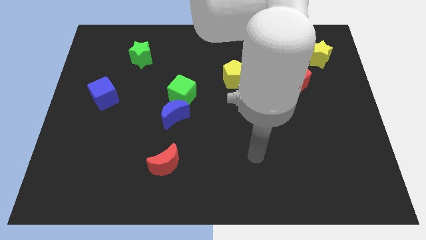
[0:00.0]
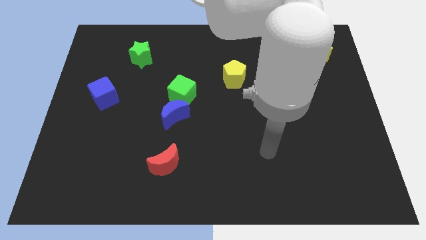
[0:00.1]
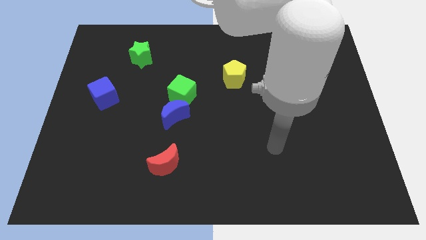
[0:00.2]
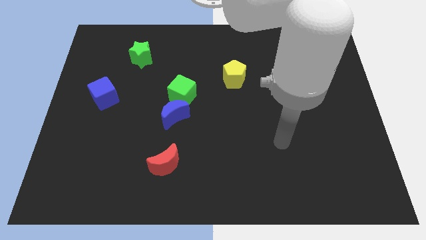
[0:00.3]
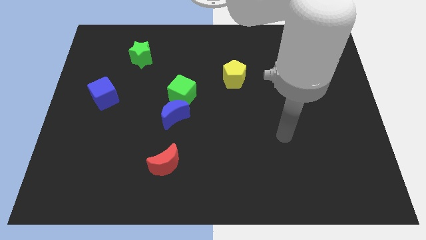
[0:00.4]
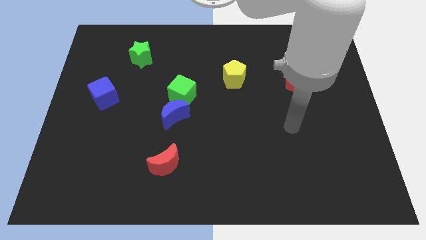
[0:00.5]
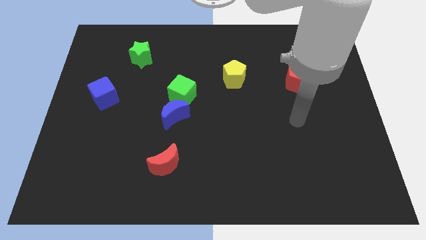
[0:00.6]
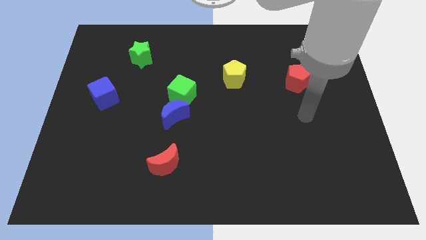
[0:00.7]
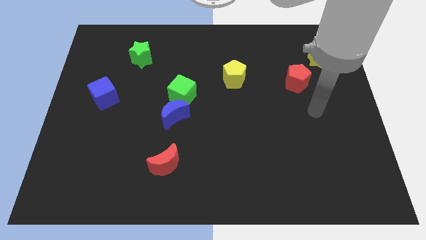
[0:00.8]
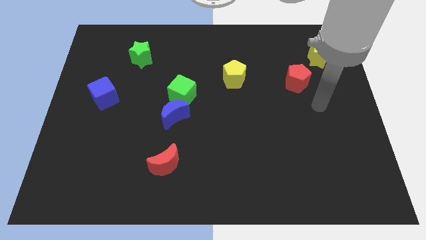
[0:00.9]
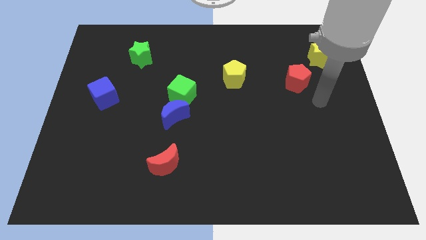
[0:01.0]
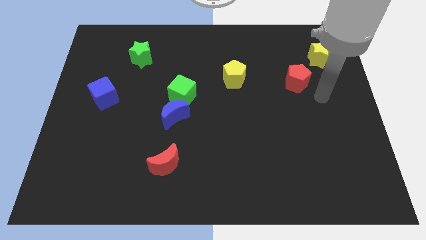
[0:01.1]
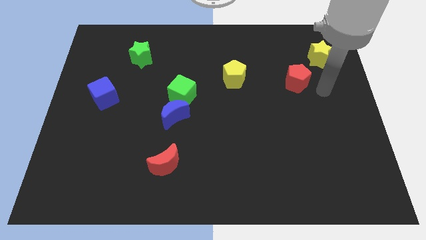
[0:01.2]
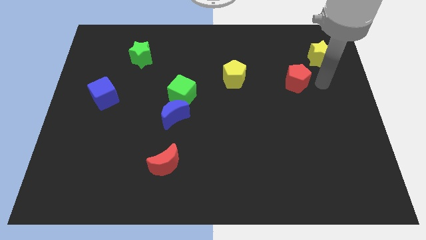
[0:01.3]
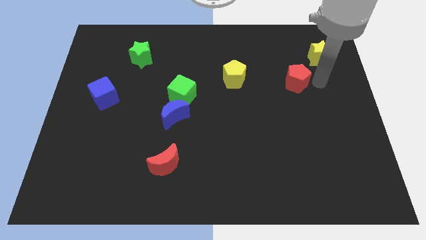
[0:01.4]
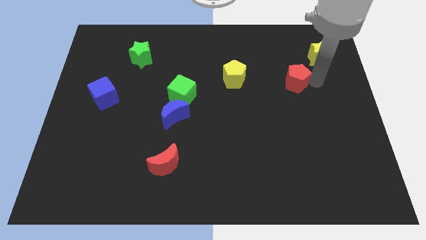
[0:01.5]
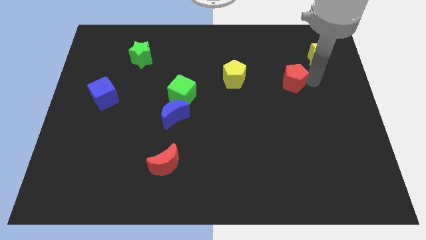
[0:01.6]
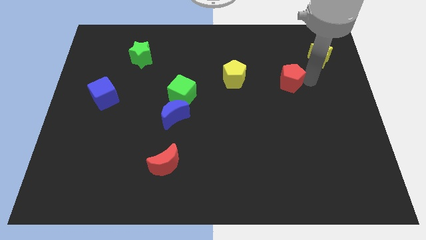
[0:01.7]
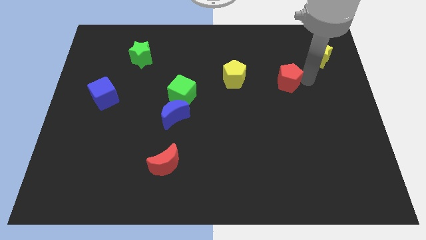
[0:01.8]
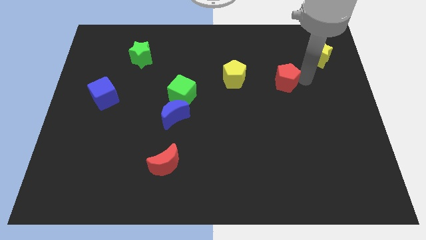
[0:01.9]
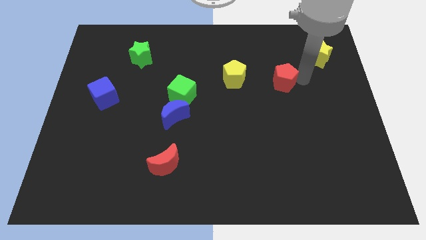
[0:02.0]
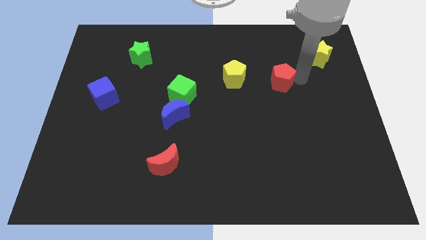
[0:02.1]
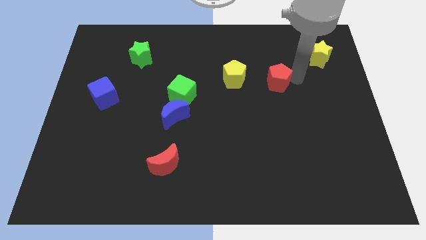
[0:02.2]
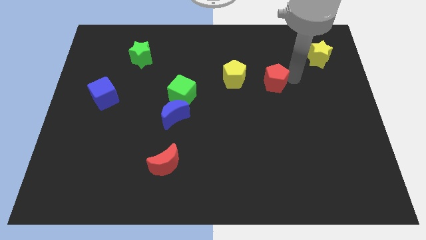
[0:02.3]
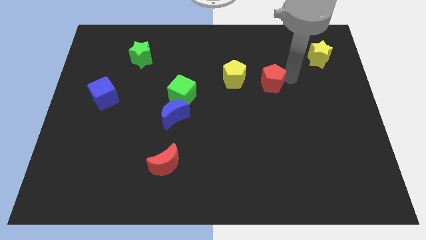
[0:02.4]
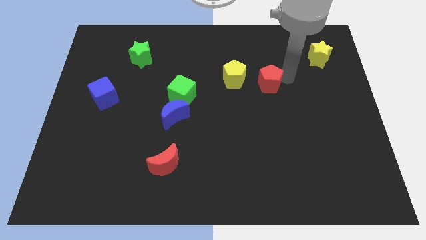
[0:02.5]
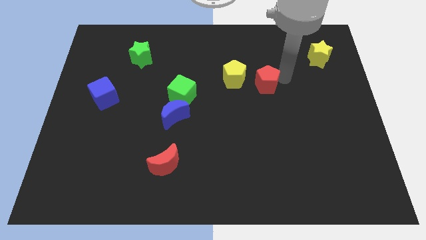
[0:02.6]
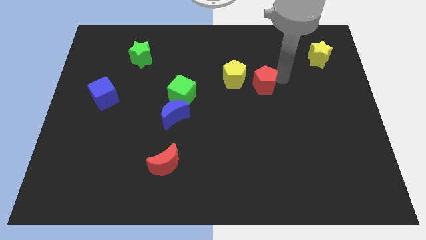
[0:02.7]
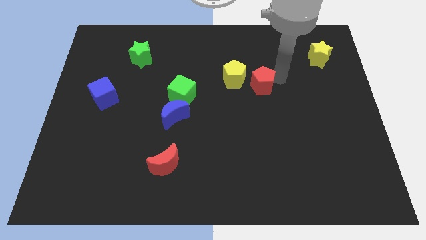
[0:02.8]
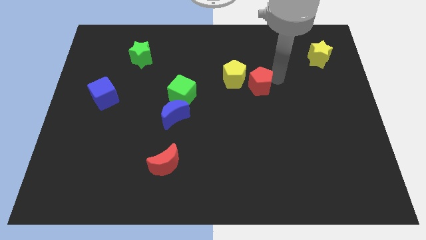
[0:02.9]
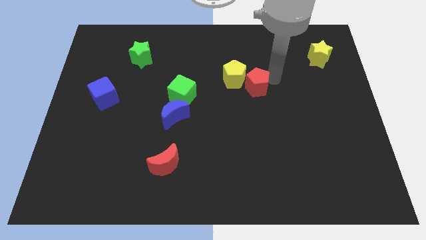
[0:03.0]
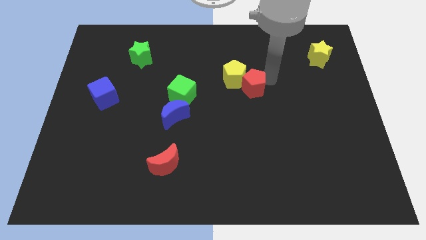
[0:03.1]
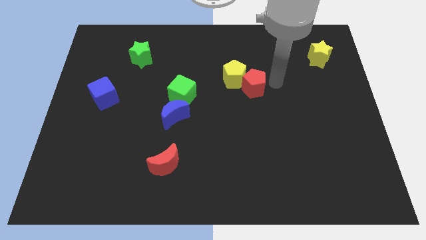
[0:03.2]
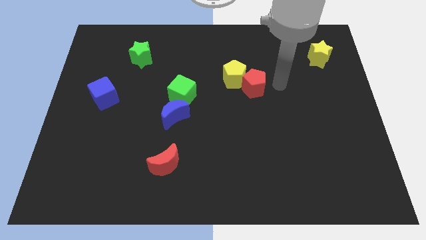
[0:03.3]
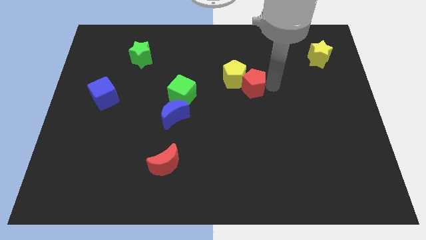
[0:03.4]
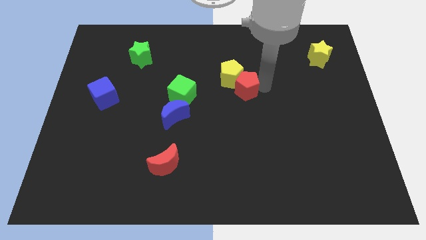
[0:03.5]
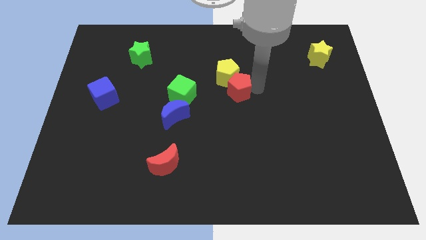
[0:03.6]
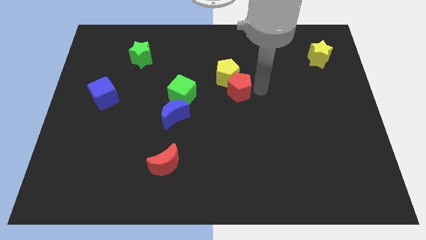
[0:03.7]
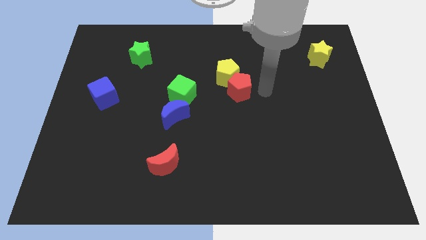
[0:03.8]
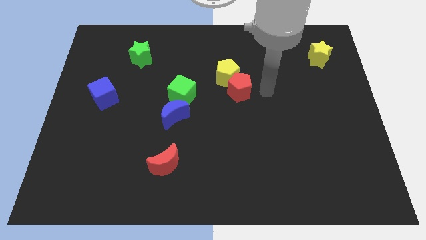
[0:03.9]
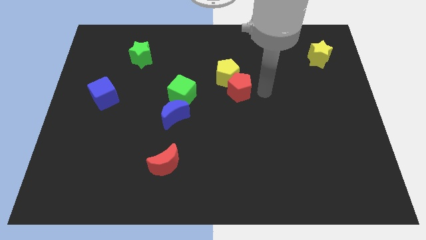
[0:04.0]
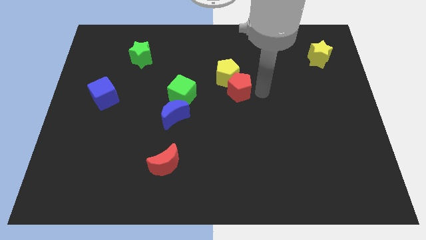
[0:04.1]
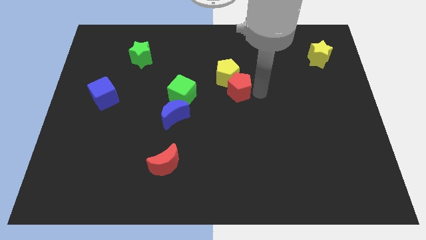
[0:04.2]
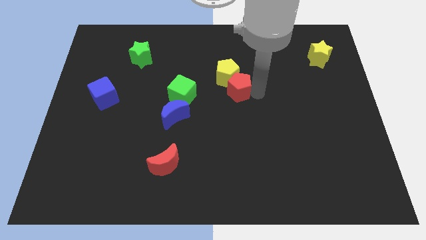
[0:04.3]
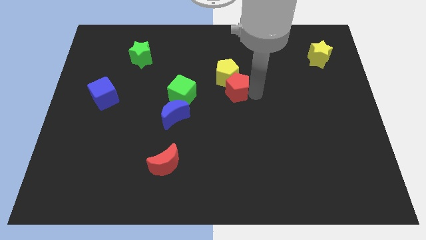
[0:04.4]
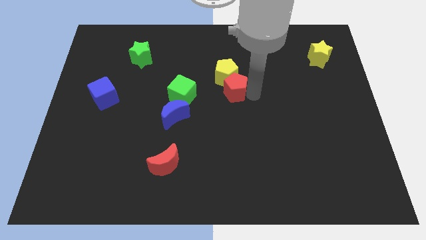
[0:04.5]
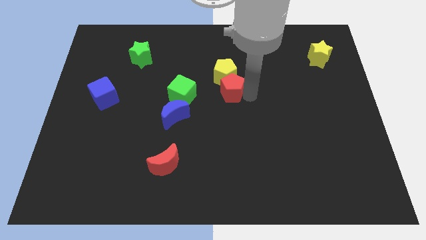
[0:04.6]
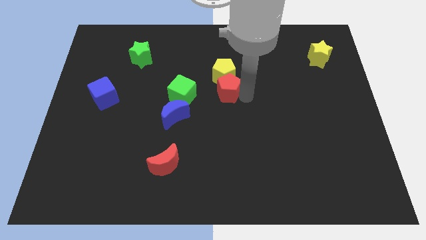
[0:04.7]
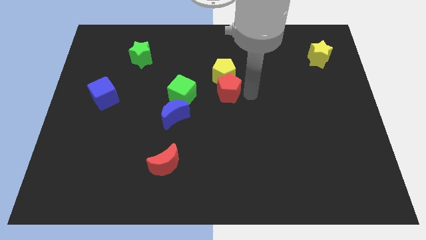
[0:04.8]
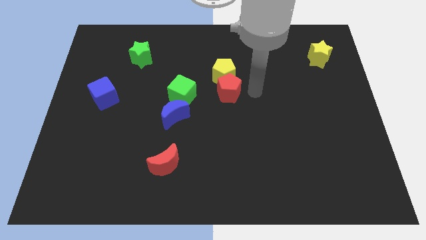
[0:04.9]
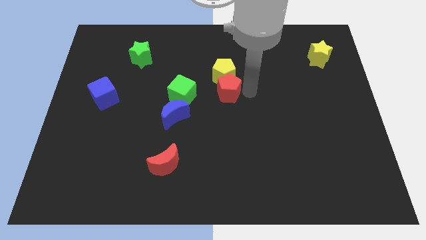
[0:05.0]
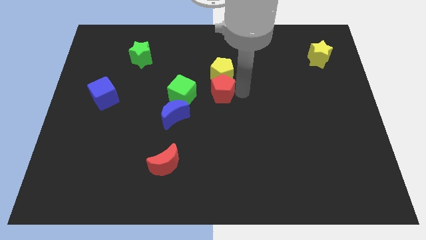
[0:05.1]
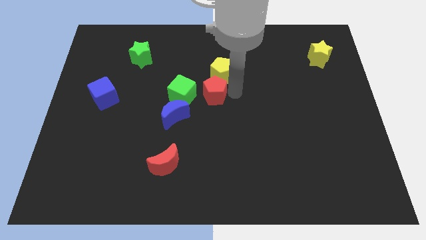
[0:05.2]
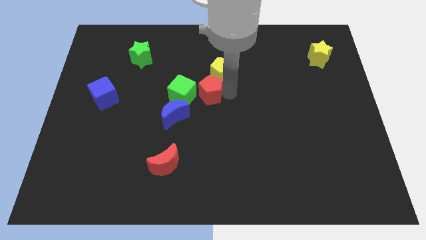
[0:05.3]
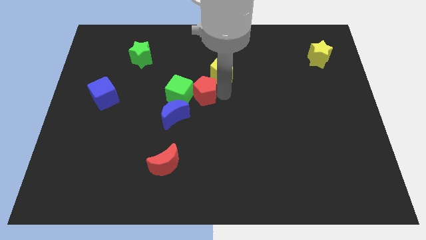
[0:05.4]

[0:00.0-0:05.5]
move the red pentagon close to the green cube

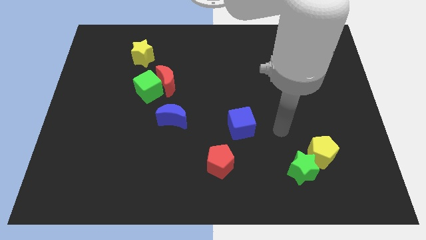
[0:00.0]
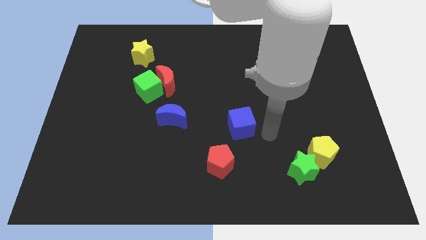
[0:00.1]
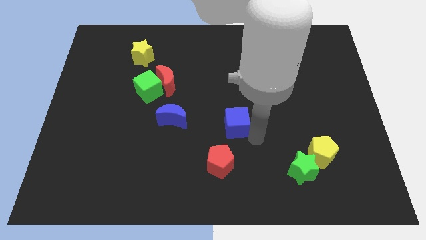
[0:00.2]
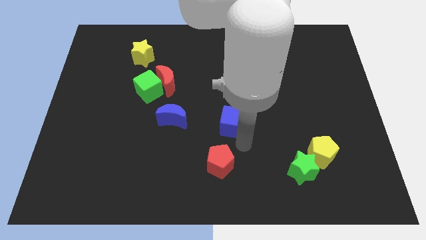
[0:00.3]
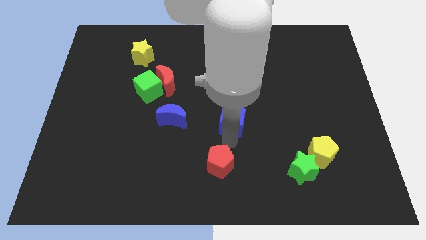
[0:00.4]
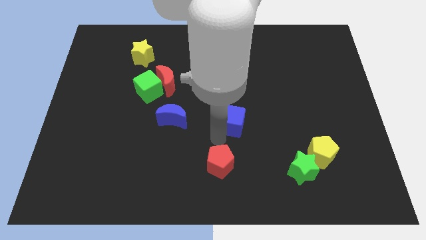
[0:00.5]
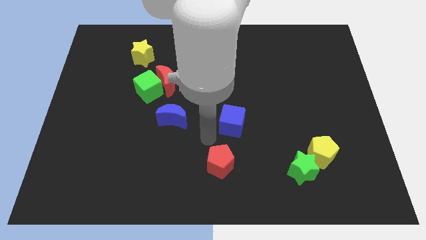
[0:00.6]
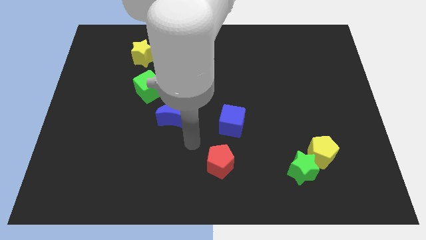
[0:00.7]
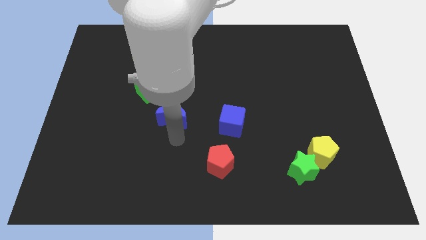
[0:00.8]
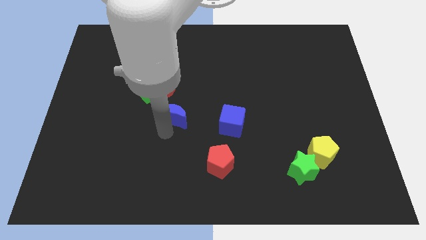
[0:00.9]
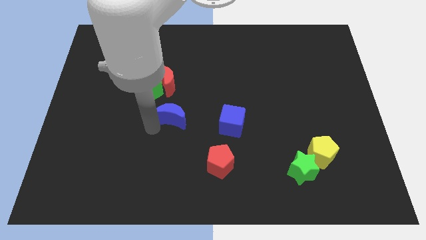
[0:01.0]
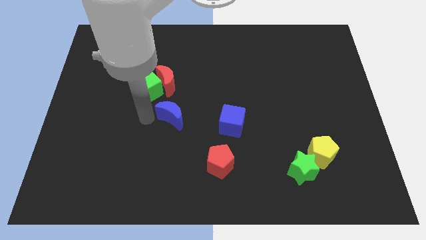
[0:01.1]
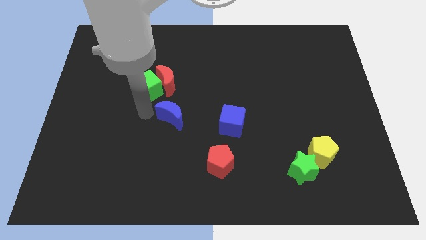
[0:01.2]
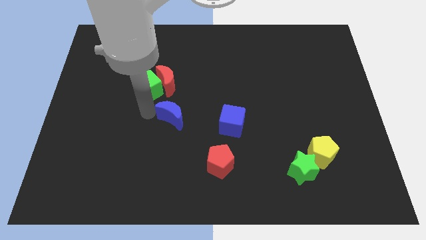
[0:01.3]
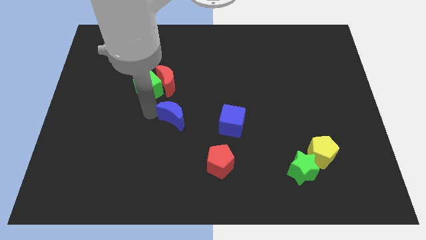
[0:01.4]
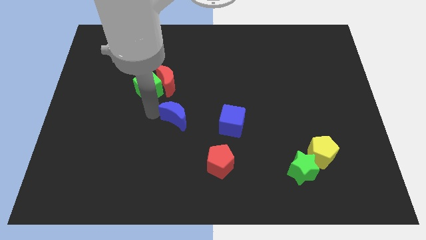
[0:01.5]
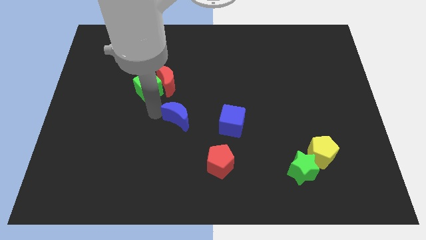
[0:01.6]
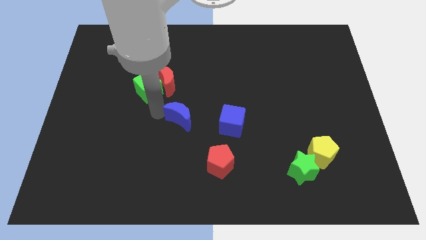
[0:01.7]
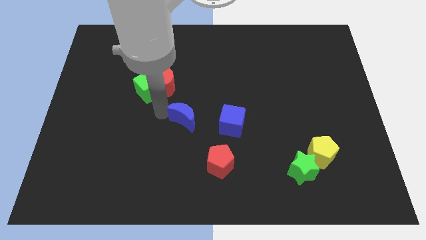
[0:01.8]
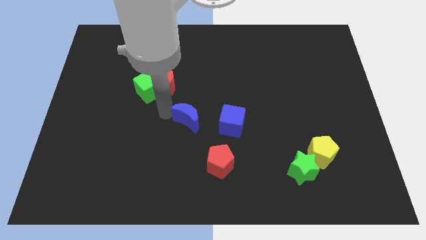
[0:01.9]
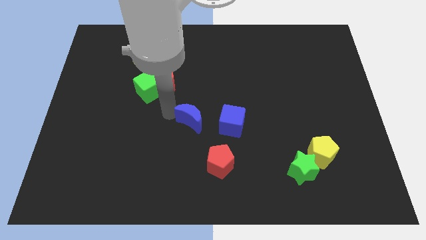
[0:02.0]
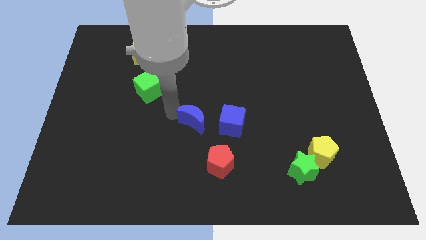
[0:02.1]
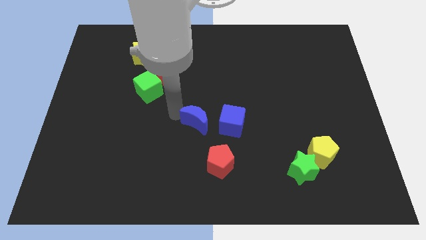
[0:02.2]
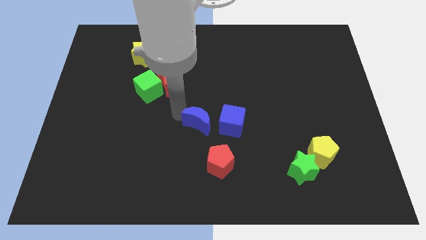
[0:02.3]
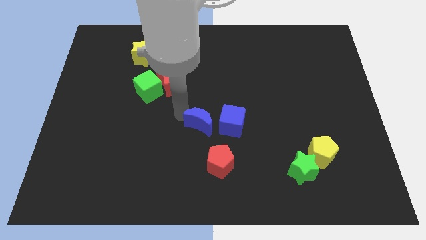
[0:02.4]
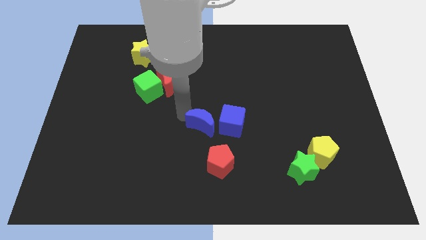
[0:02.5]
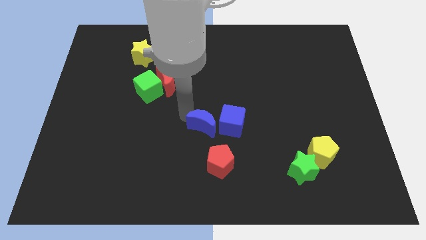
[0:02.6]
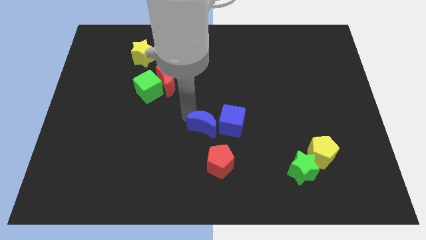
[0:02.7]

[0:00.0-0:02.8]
put the blue moon next to the blue cube
